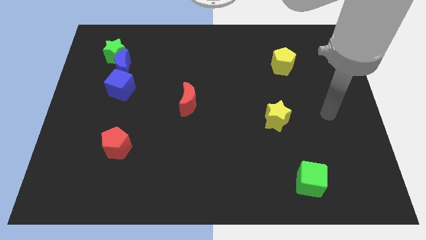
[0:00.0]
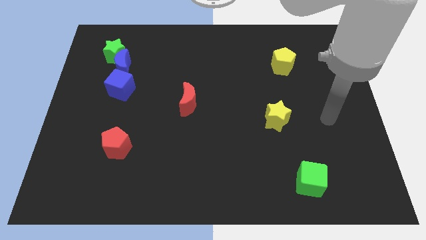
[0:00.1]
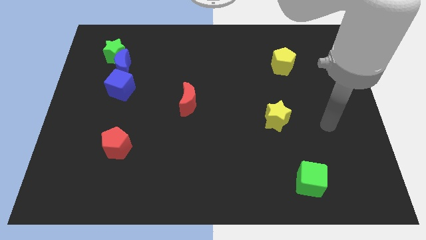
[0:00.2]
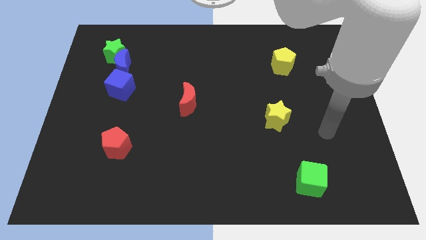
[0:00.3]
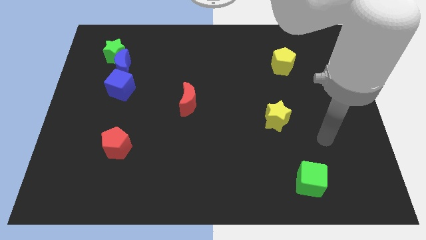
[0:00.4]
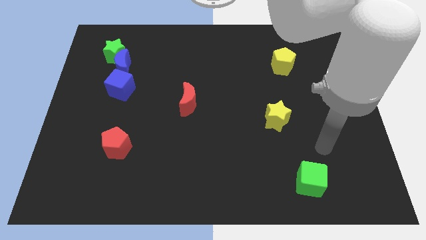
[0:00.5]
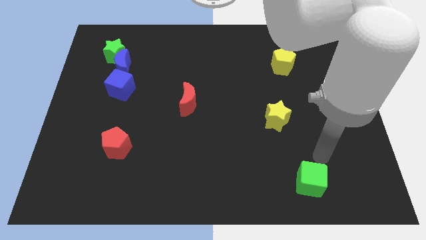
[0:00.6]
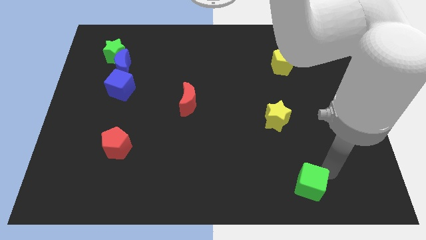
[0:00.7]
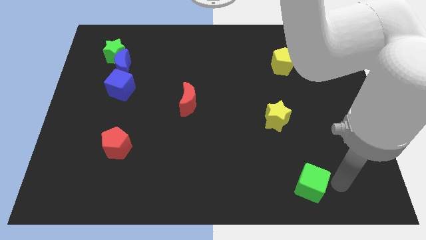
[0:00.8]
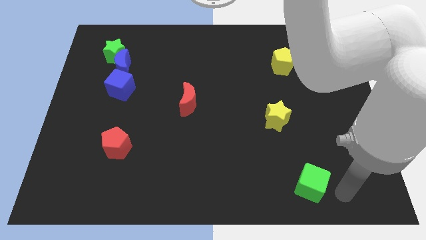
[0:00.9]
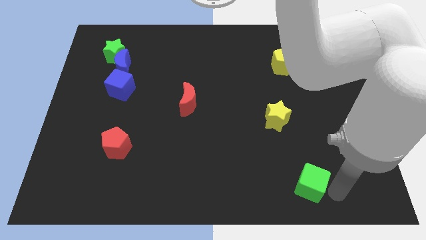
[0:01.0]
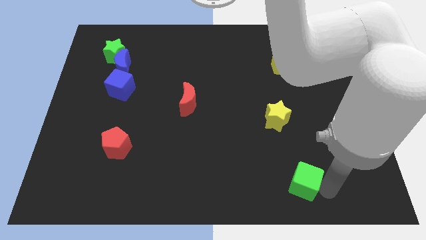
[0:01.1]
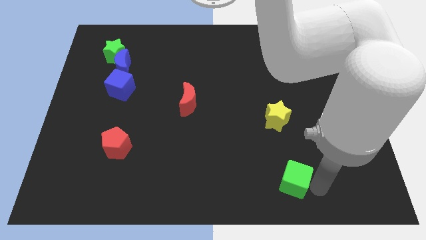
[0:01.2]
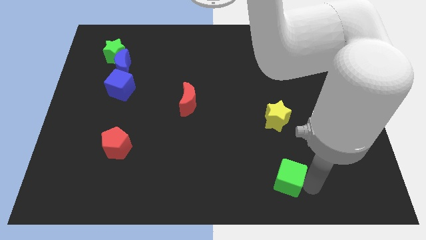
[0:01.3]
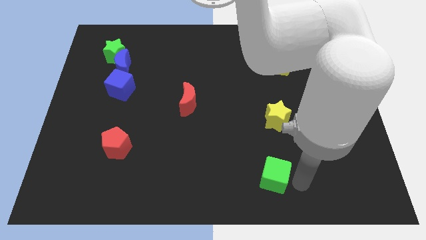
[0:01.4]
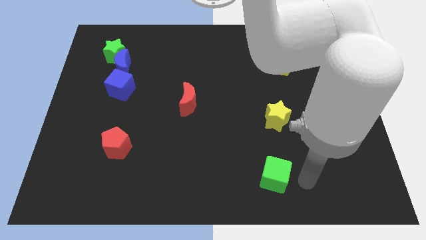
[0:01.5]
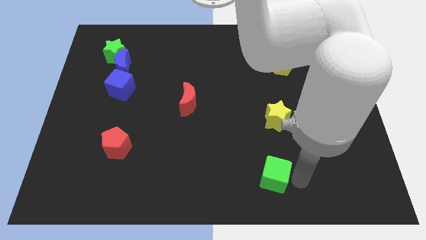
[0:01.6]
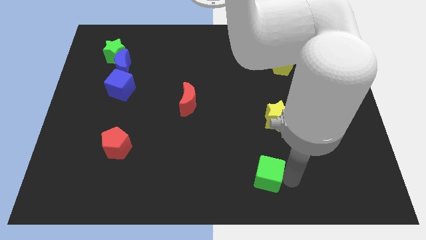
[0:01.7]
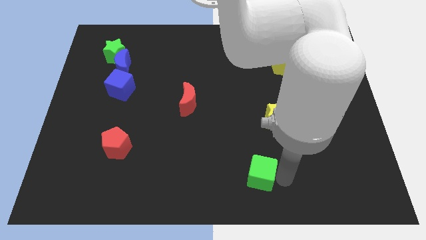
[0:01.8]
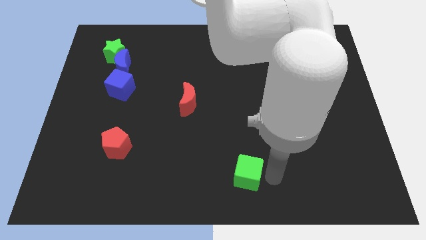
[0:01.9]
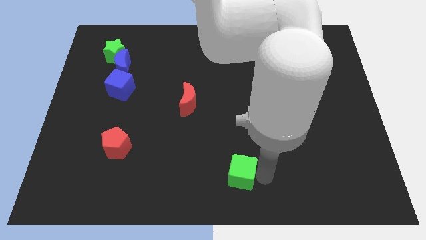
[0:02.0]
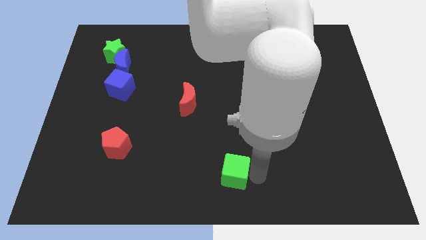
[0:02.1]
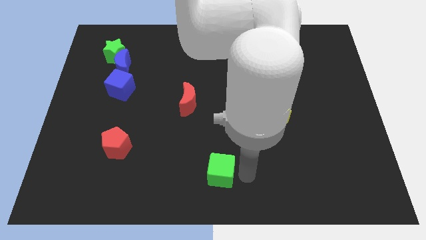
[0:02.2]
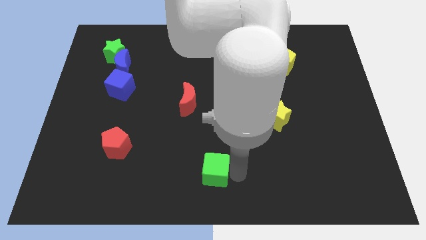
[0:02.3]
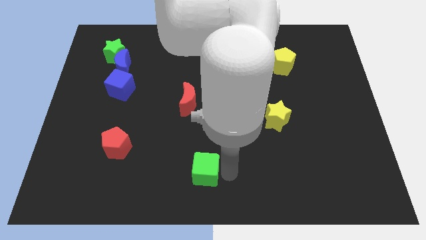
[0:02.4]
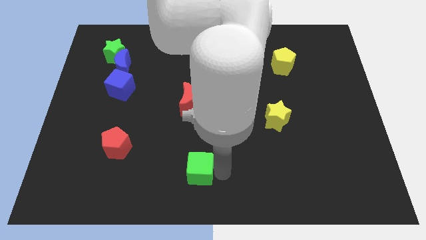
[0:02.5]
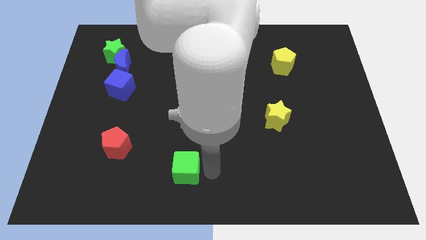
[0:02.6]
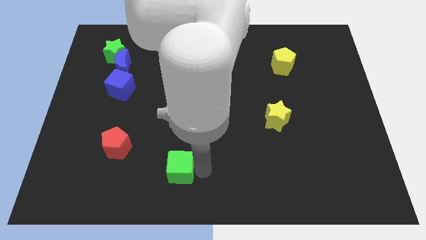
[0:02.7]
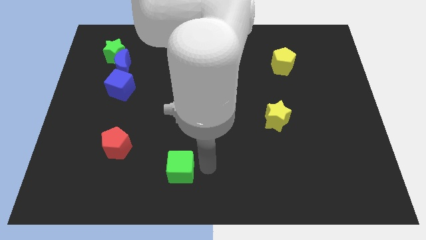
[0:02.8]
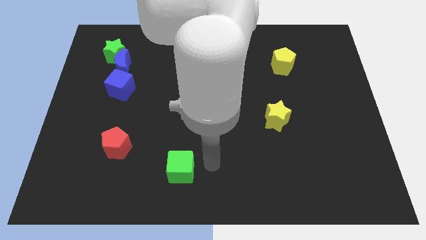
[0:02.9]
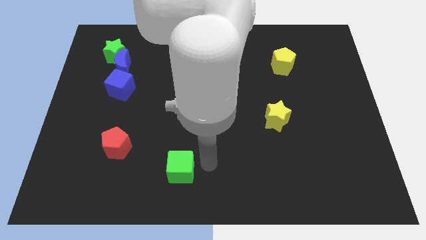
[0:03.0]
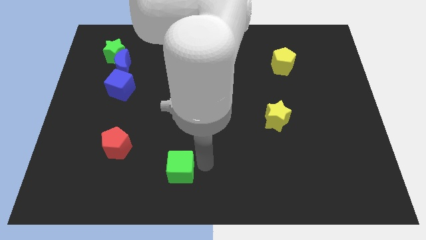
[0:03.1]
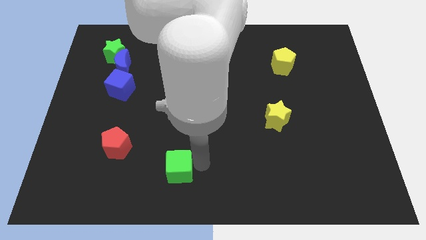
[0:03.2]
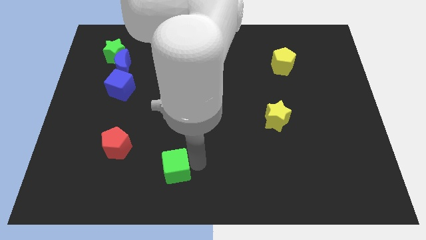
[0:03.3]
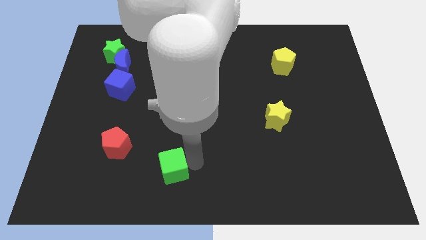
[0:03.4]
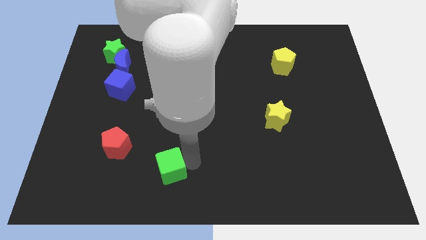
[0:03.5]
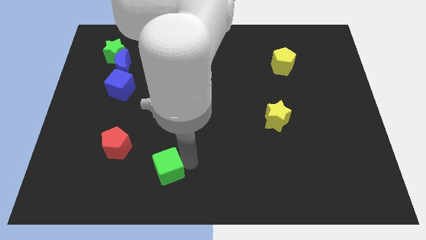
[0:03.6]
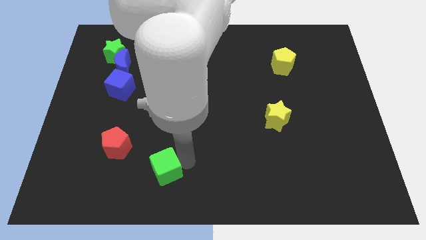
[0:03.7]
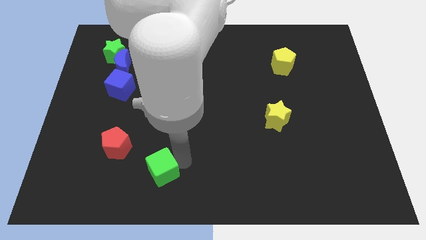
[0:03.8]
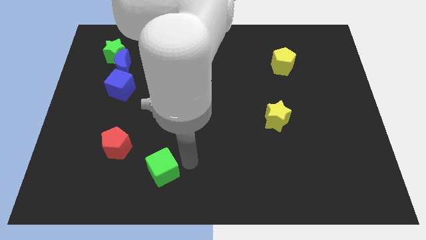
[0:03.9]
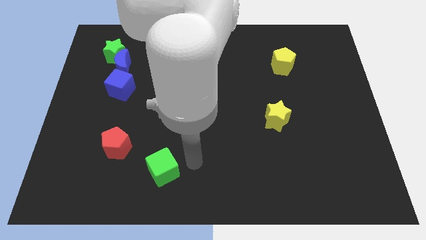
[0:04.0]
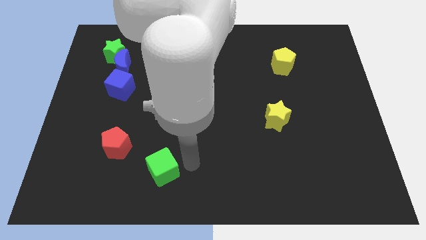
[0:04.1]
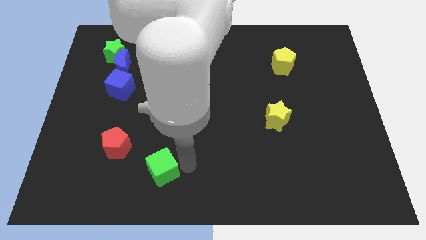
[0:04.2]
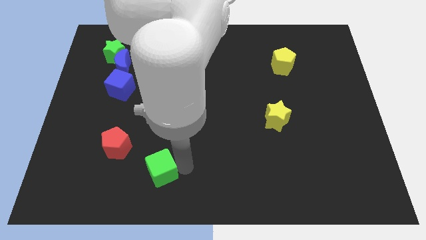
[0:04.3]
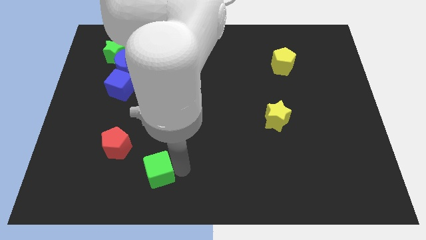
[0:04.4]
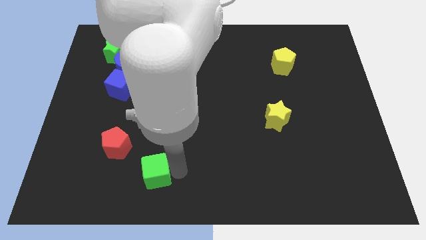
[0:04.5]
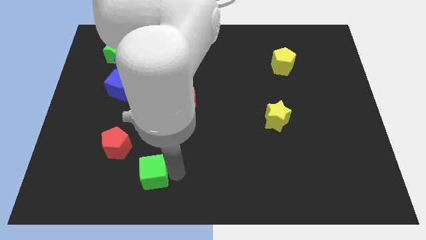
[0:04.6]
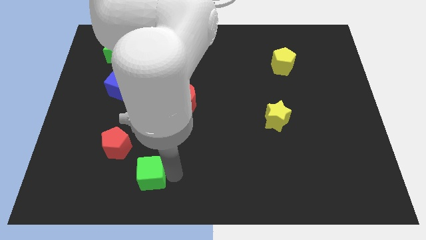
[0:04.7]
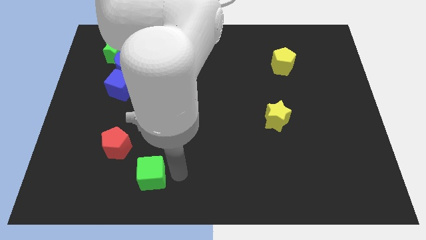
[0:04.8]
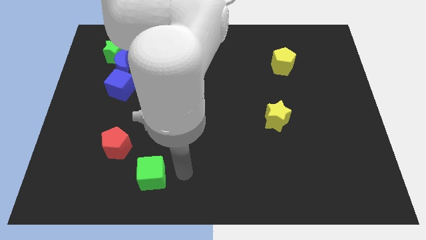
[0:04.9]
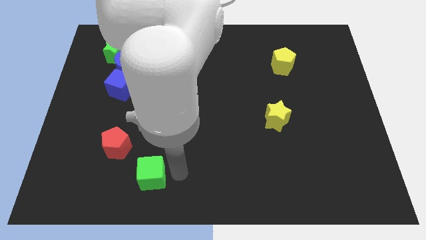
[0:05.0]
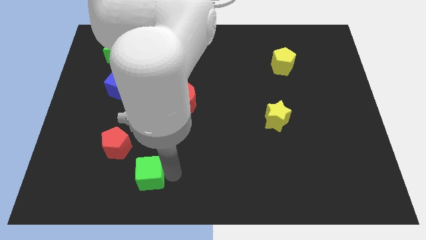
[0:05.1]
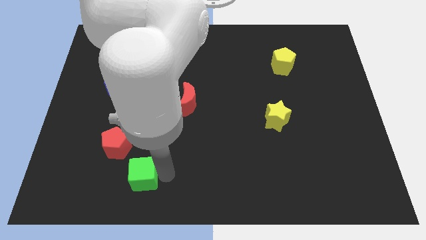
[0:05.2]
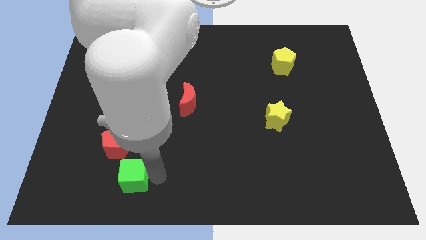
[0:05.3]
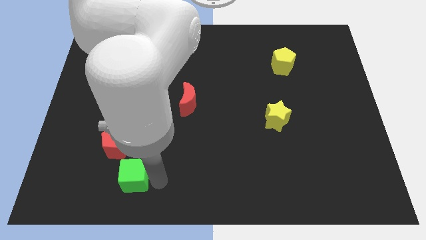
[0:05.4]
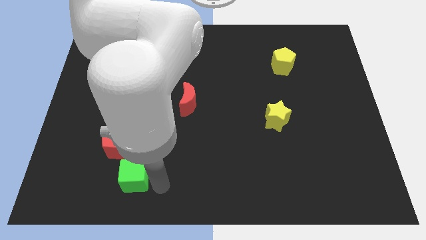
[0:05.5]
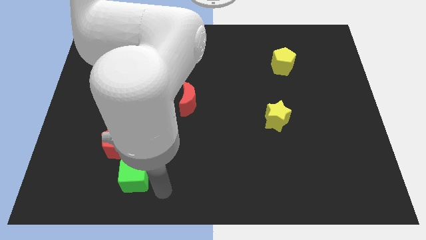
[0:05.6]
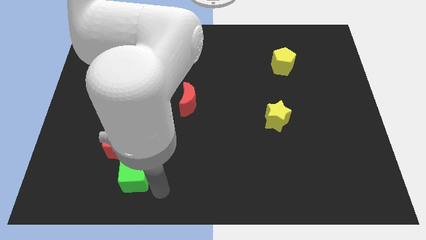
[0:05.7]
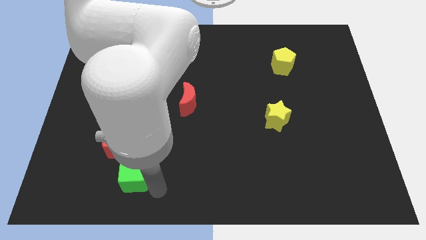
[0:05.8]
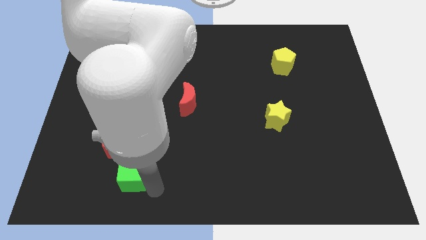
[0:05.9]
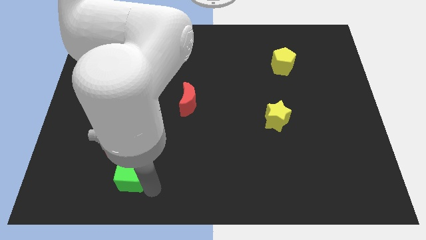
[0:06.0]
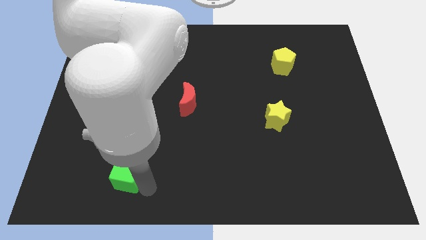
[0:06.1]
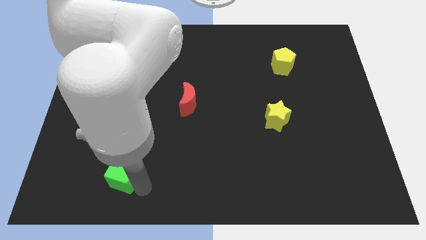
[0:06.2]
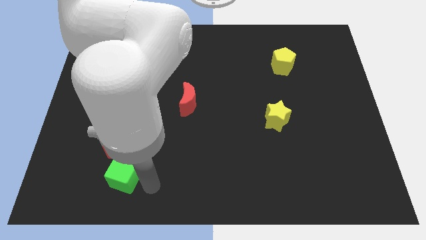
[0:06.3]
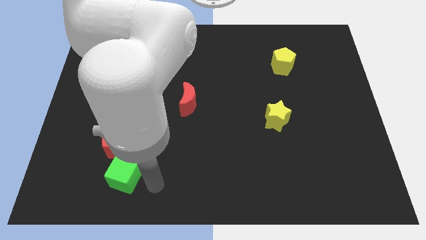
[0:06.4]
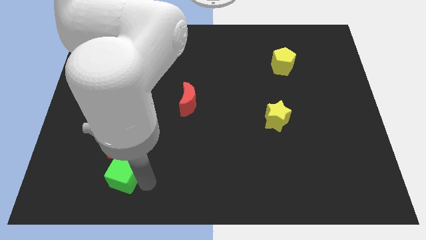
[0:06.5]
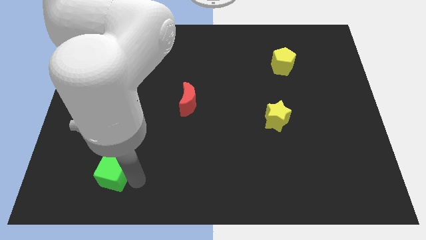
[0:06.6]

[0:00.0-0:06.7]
put the green cube to the bottom left side of the red pentagon

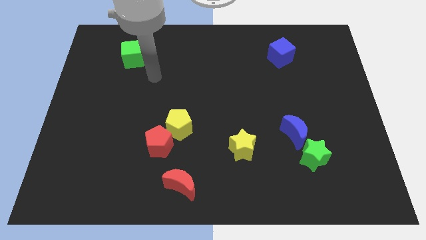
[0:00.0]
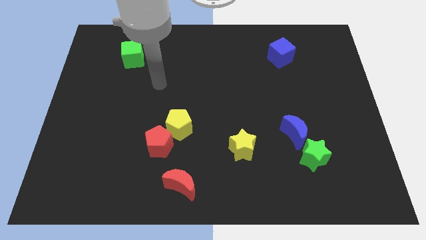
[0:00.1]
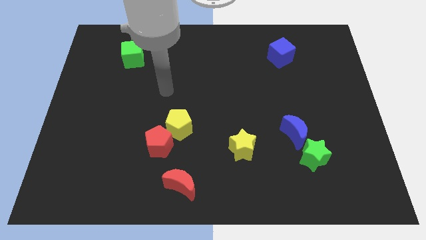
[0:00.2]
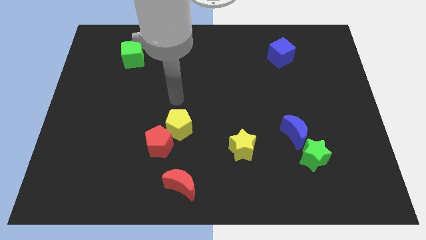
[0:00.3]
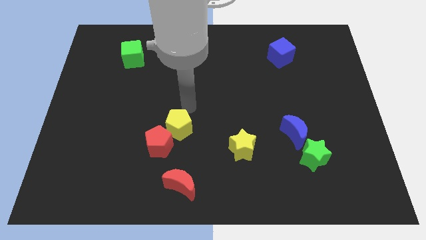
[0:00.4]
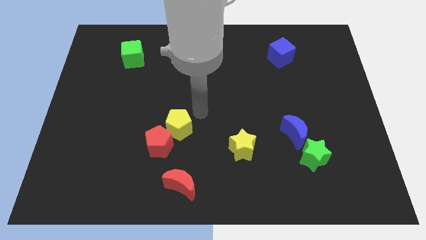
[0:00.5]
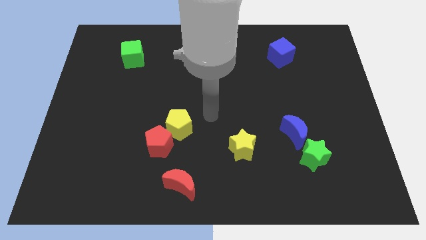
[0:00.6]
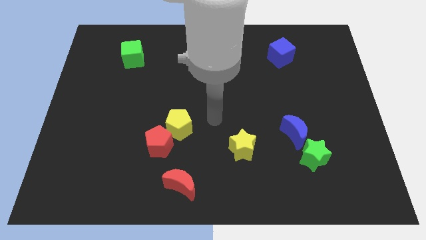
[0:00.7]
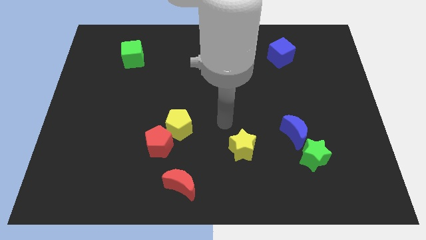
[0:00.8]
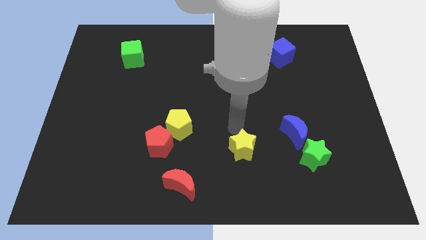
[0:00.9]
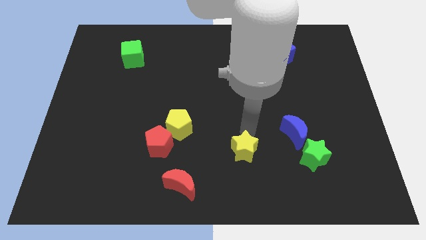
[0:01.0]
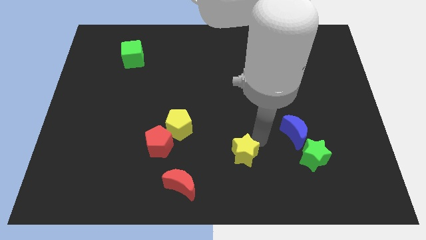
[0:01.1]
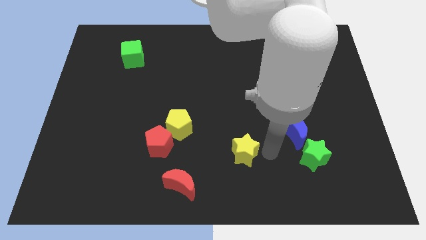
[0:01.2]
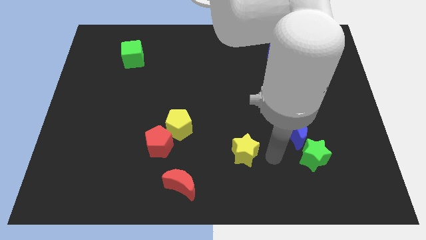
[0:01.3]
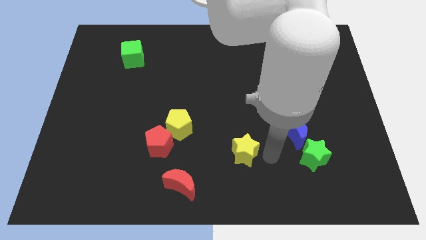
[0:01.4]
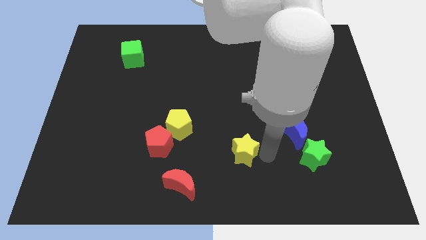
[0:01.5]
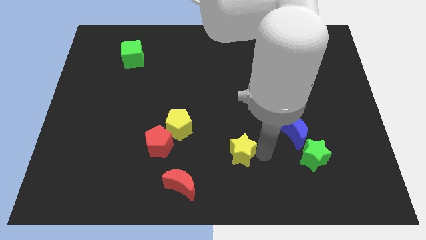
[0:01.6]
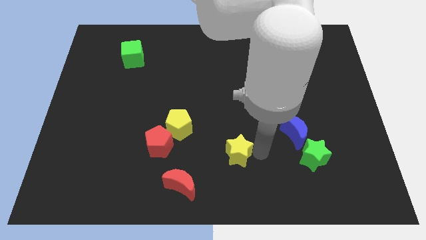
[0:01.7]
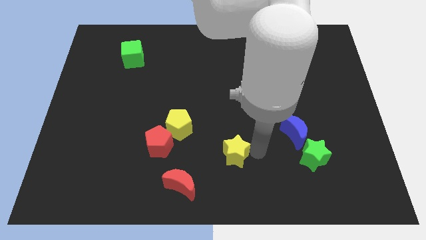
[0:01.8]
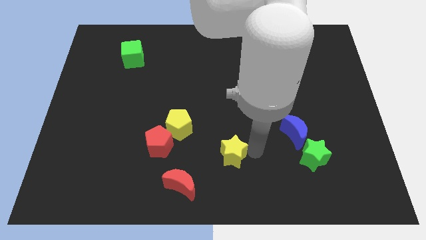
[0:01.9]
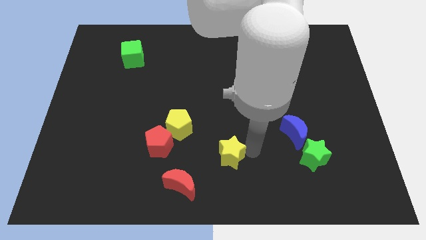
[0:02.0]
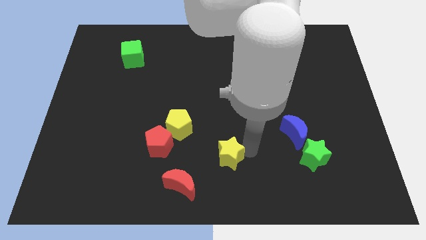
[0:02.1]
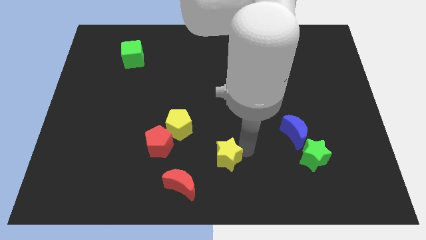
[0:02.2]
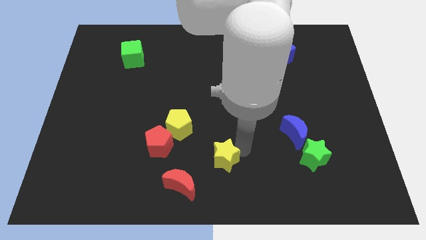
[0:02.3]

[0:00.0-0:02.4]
slide the yellow star to the bottom right side of the yellow pentagon
